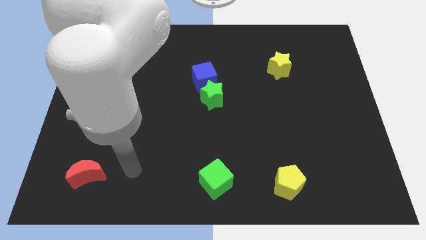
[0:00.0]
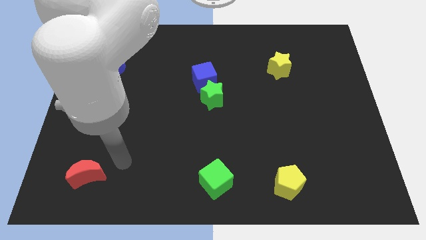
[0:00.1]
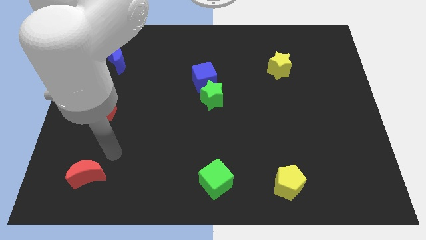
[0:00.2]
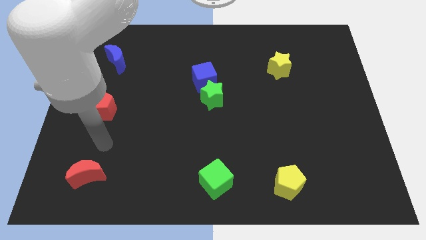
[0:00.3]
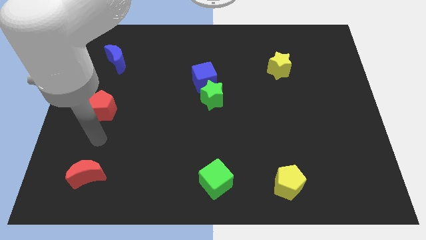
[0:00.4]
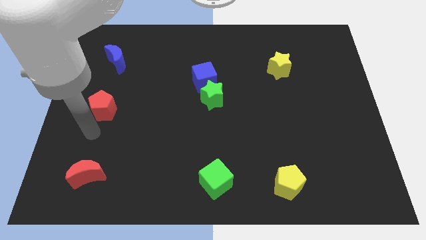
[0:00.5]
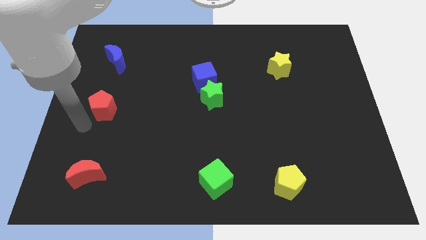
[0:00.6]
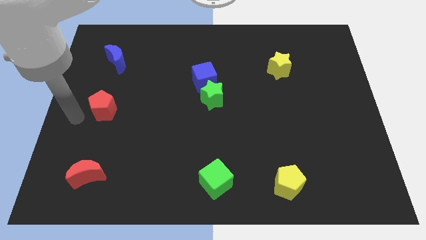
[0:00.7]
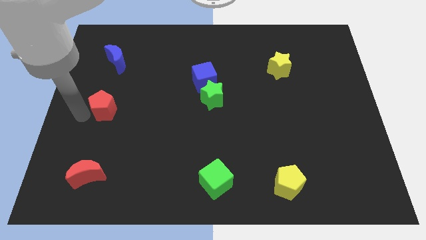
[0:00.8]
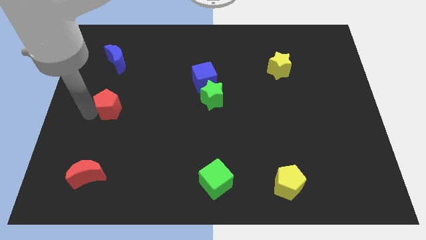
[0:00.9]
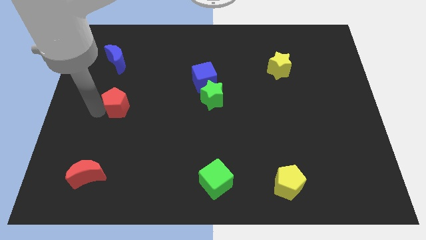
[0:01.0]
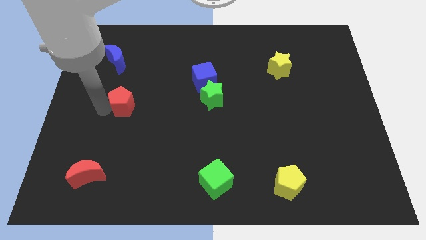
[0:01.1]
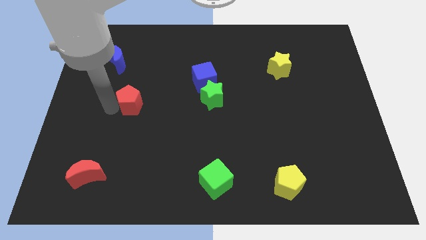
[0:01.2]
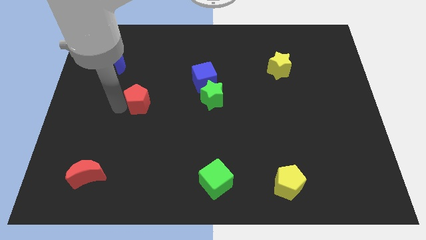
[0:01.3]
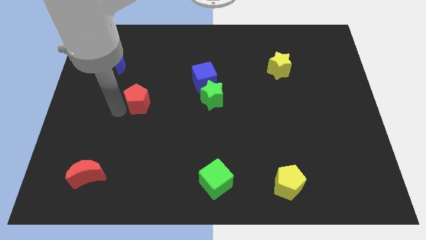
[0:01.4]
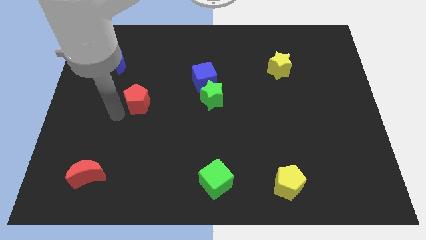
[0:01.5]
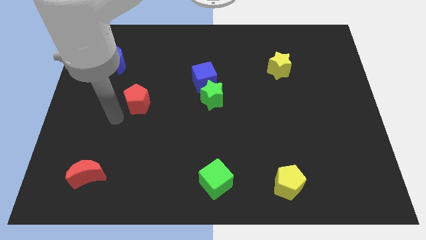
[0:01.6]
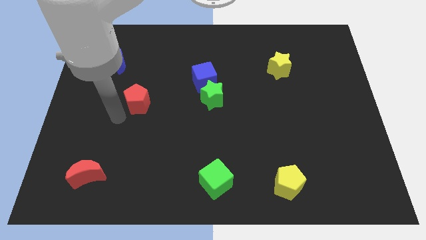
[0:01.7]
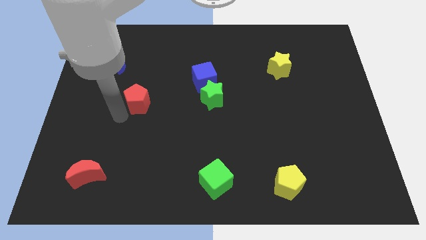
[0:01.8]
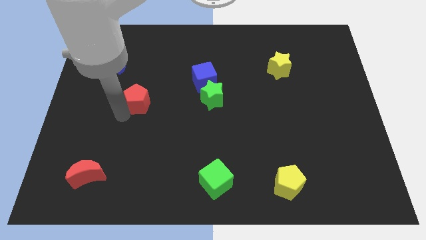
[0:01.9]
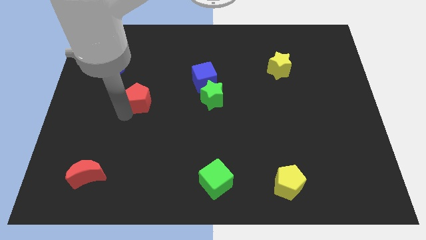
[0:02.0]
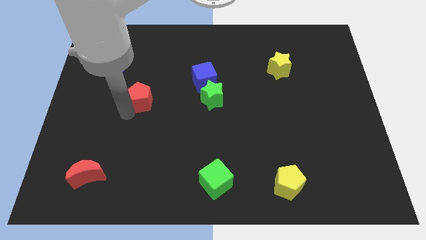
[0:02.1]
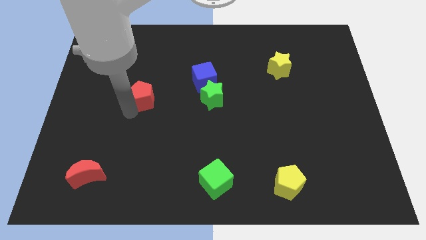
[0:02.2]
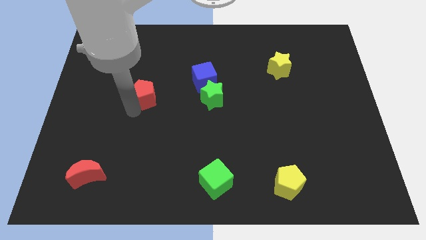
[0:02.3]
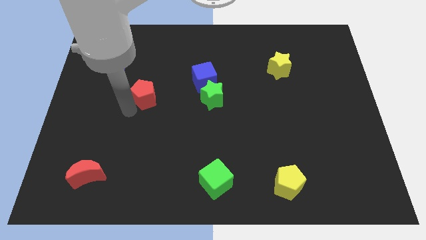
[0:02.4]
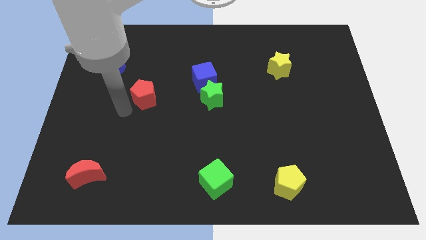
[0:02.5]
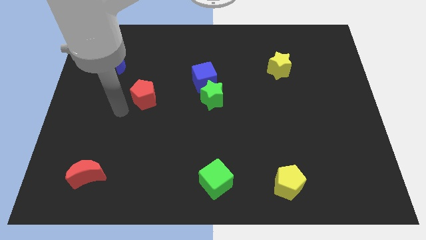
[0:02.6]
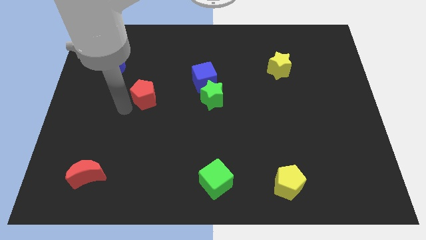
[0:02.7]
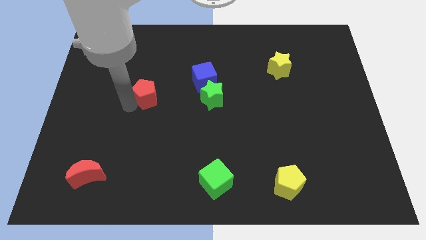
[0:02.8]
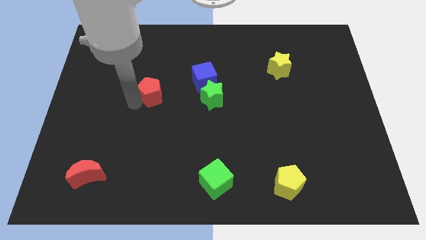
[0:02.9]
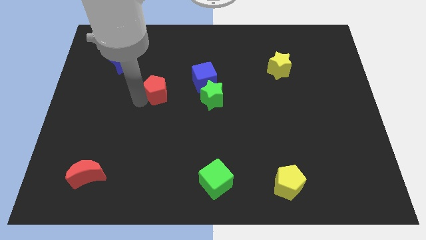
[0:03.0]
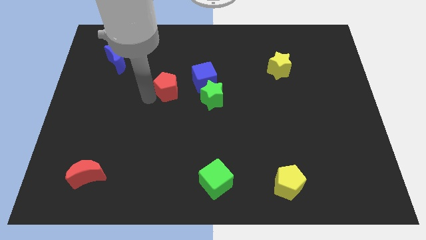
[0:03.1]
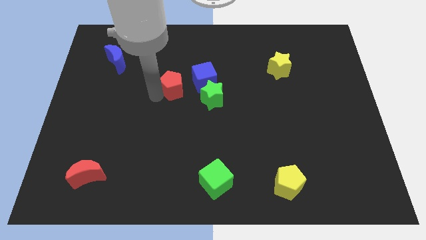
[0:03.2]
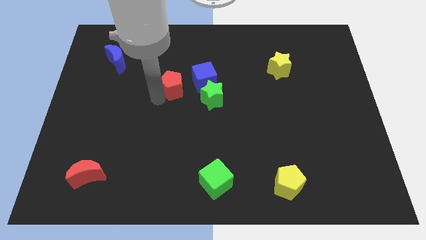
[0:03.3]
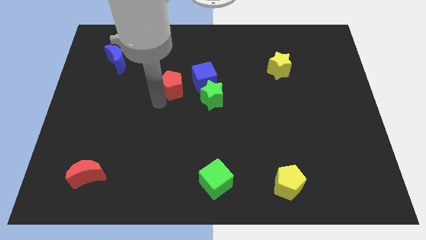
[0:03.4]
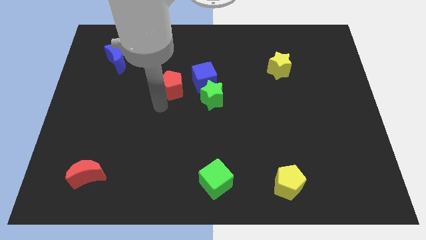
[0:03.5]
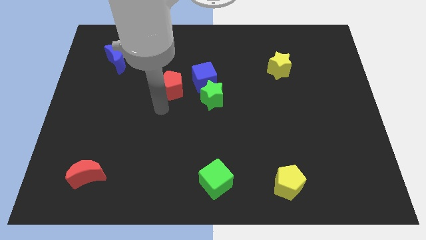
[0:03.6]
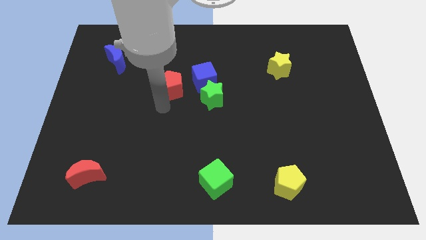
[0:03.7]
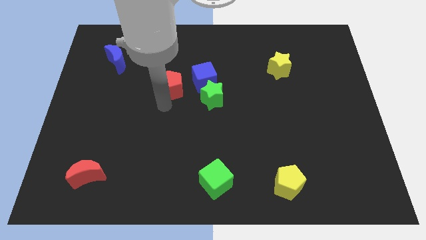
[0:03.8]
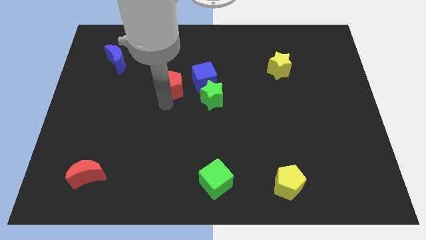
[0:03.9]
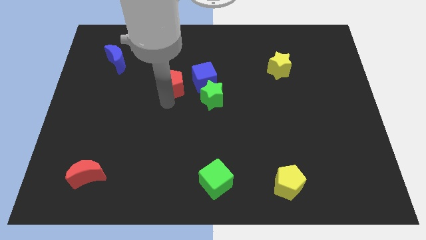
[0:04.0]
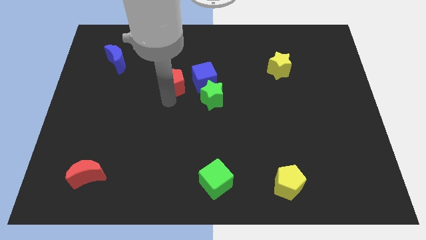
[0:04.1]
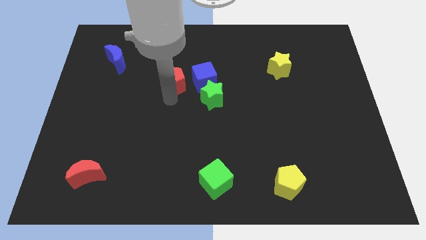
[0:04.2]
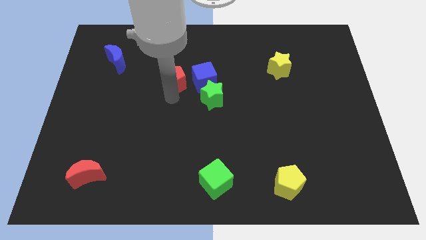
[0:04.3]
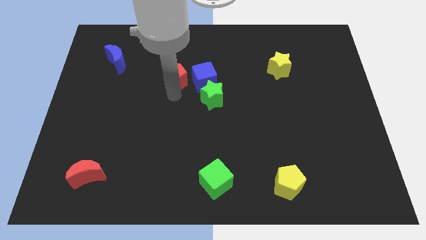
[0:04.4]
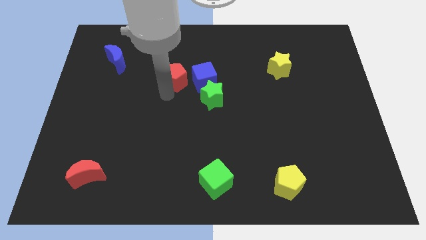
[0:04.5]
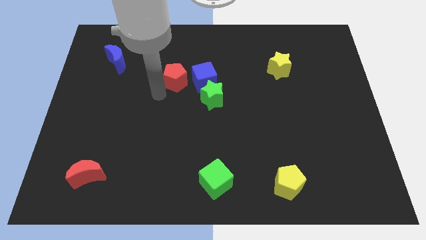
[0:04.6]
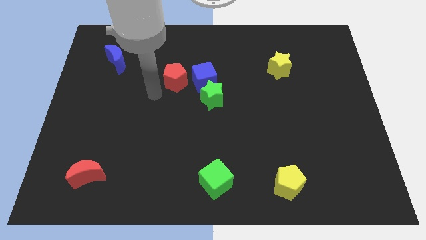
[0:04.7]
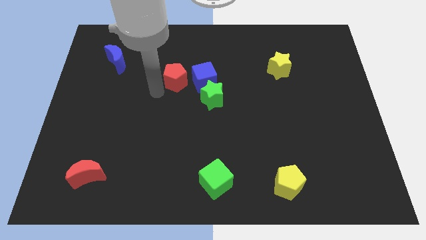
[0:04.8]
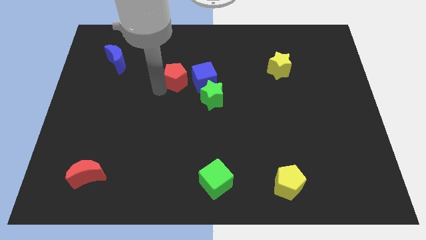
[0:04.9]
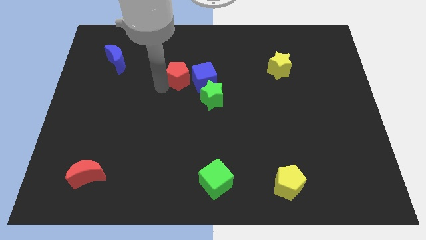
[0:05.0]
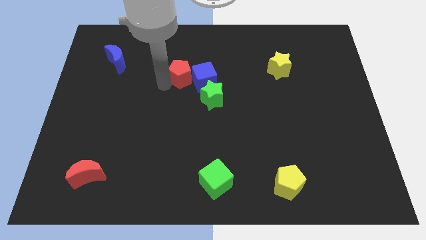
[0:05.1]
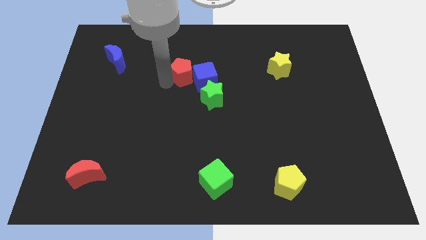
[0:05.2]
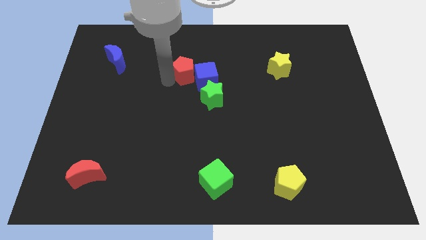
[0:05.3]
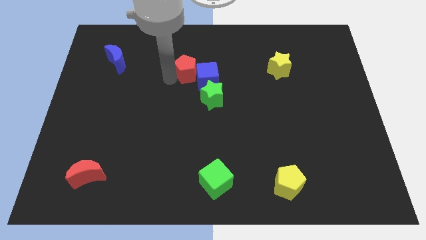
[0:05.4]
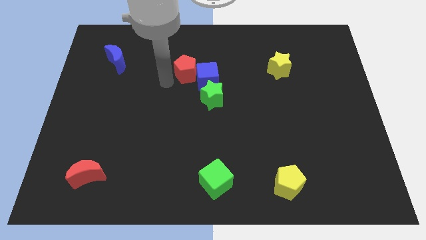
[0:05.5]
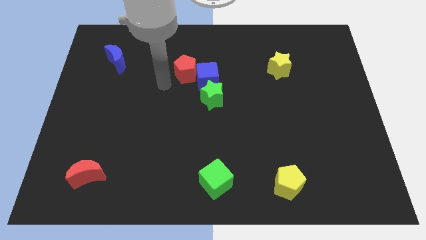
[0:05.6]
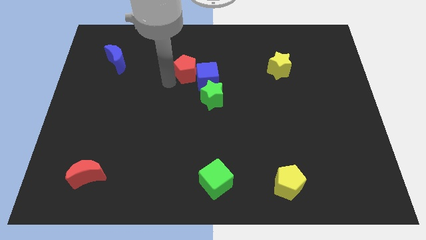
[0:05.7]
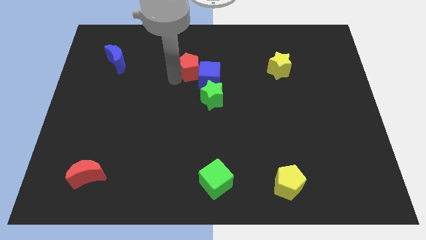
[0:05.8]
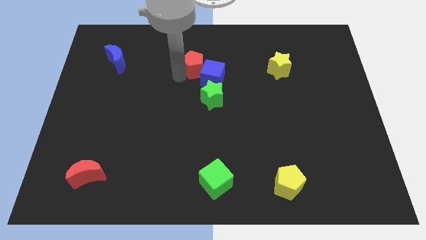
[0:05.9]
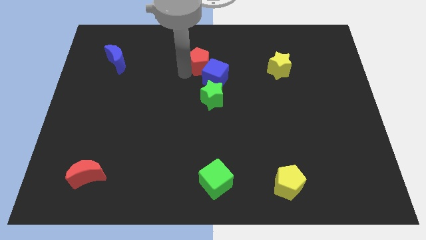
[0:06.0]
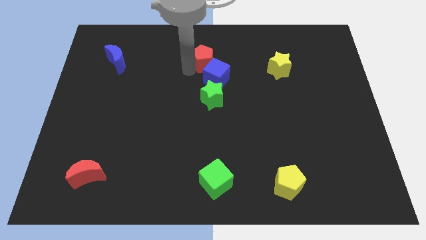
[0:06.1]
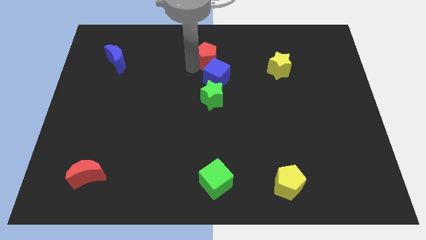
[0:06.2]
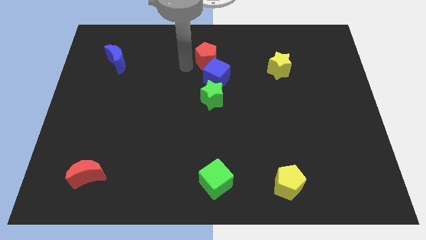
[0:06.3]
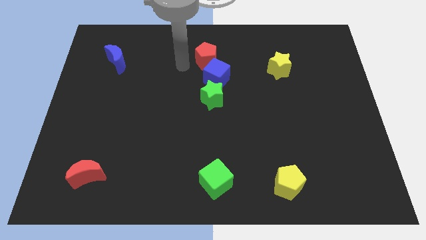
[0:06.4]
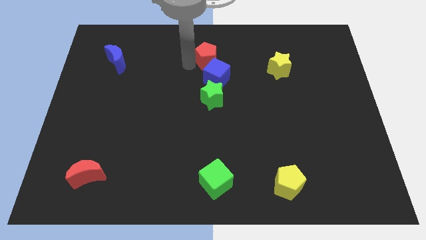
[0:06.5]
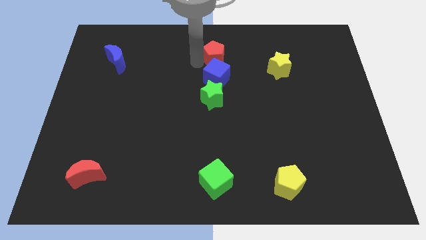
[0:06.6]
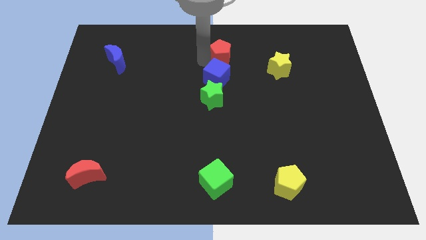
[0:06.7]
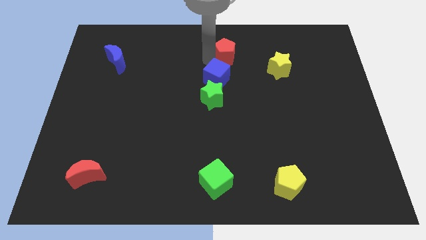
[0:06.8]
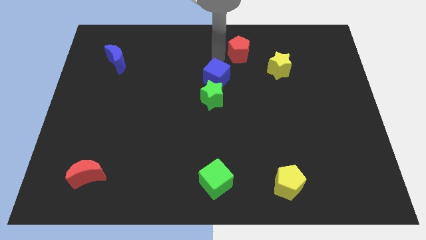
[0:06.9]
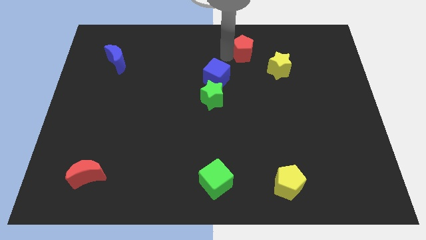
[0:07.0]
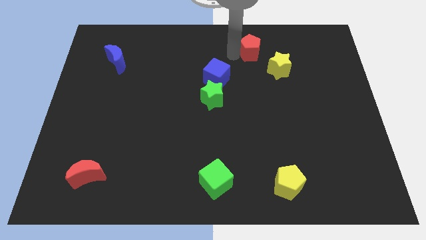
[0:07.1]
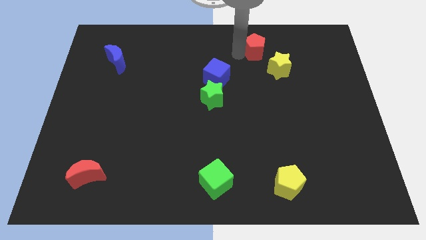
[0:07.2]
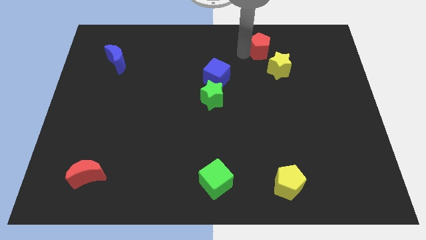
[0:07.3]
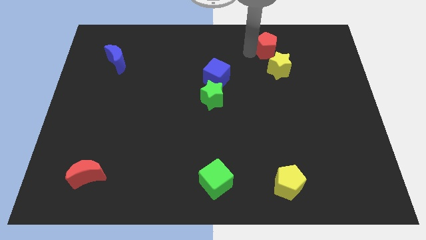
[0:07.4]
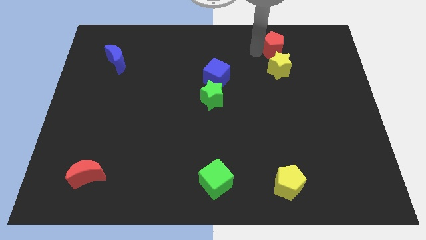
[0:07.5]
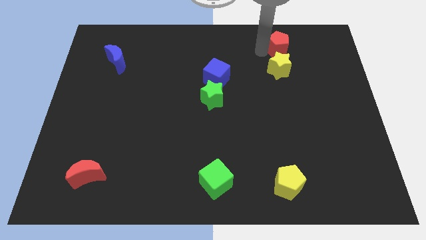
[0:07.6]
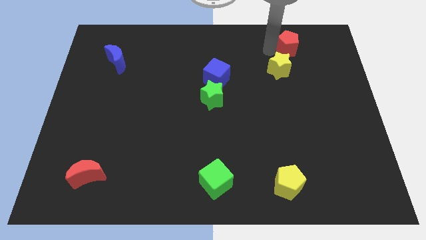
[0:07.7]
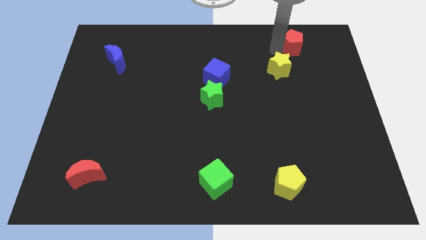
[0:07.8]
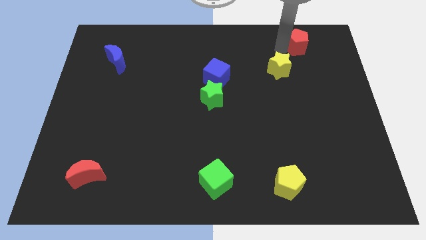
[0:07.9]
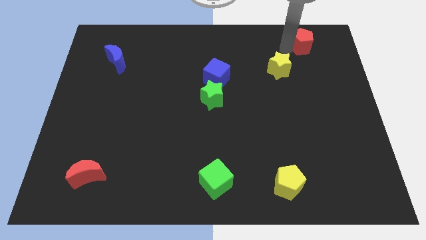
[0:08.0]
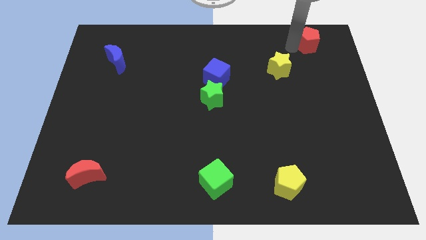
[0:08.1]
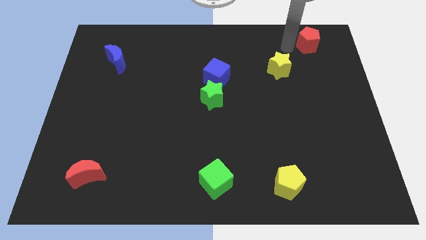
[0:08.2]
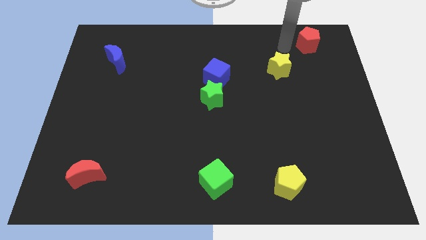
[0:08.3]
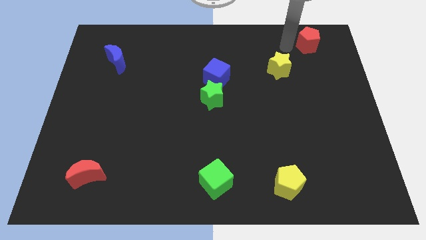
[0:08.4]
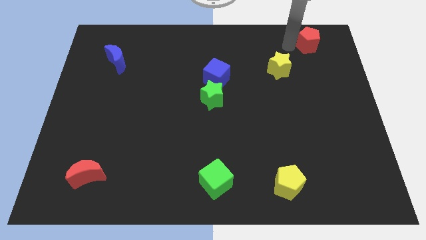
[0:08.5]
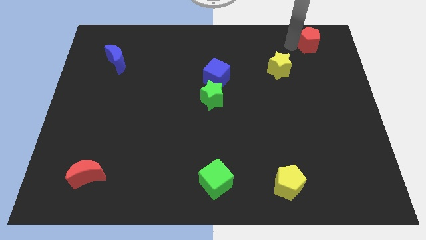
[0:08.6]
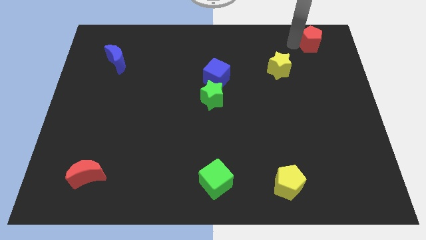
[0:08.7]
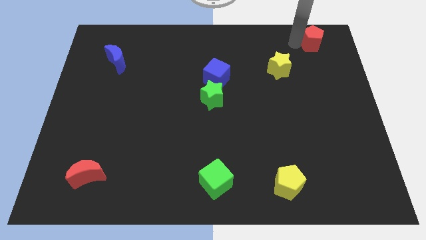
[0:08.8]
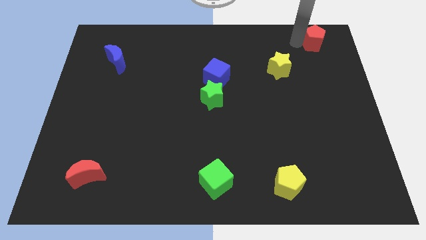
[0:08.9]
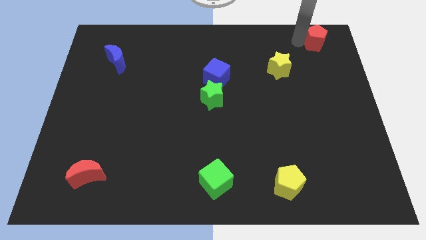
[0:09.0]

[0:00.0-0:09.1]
push the red pentagon to the top right of the board
